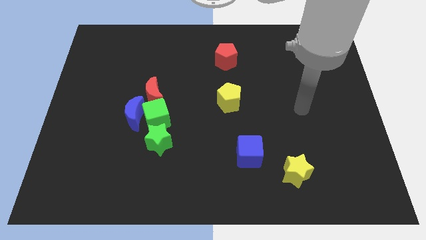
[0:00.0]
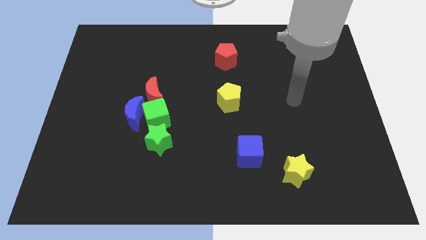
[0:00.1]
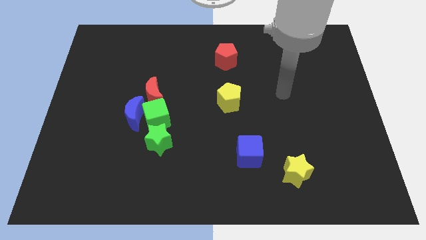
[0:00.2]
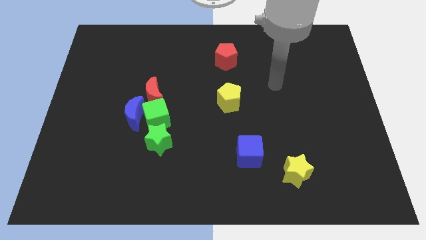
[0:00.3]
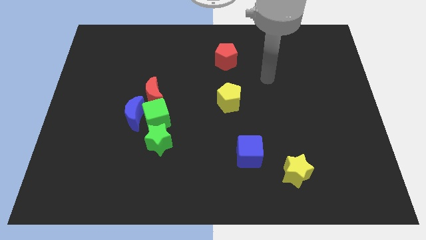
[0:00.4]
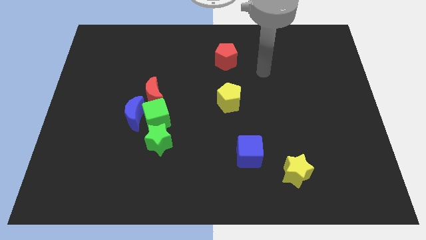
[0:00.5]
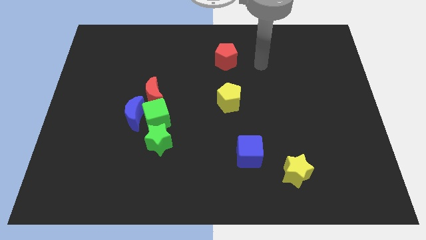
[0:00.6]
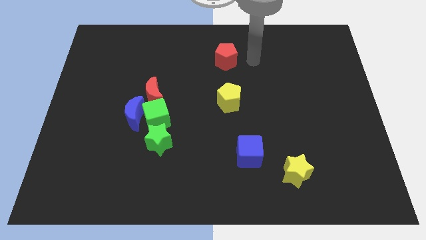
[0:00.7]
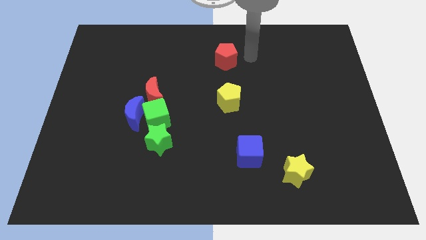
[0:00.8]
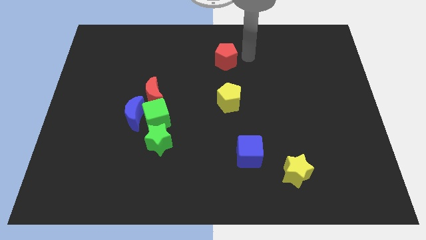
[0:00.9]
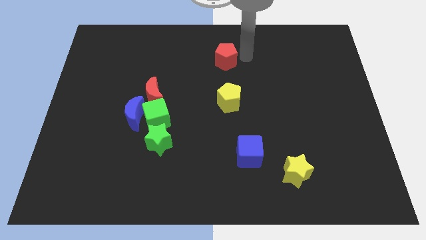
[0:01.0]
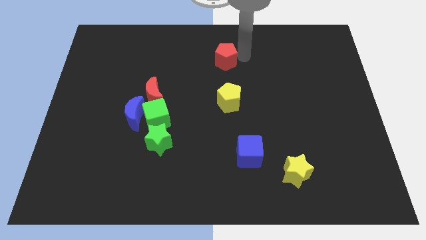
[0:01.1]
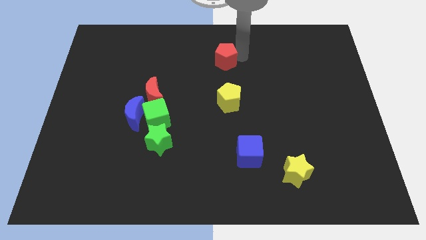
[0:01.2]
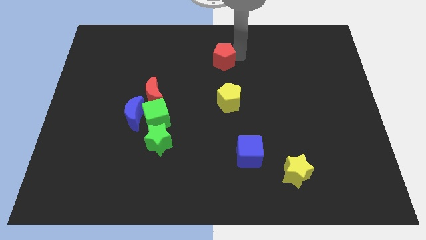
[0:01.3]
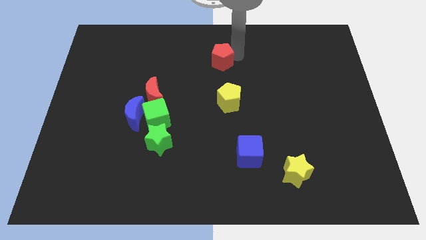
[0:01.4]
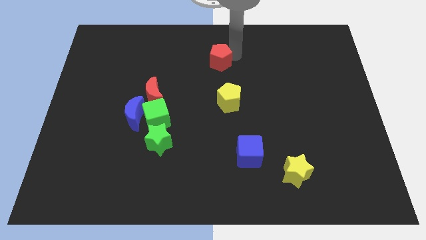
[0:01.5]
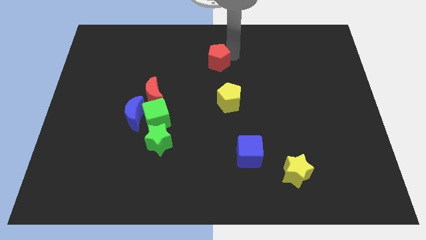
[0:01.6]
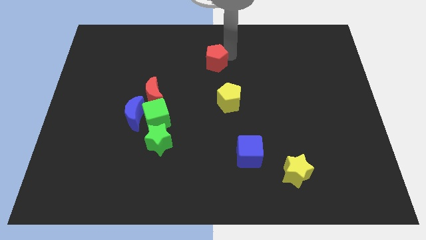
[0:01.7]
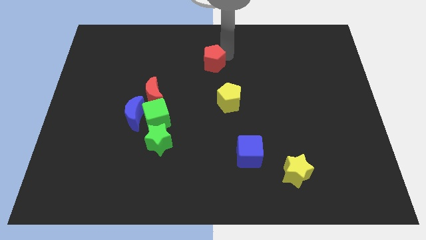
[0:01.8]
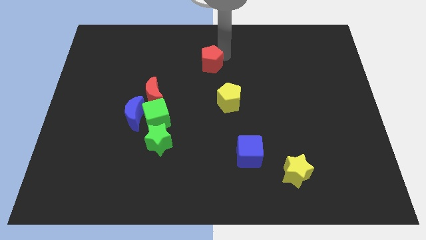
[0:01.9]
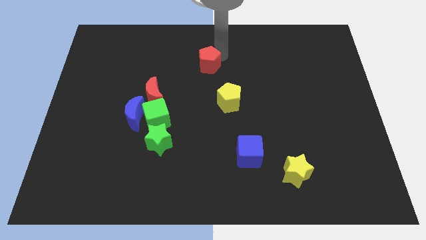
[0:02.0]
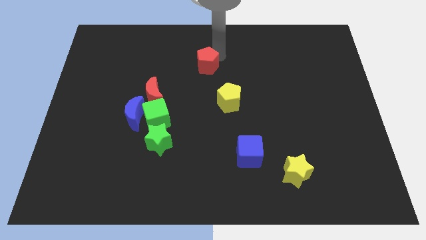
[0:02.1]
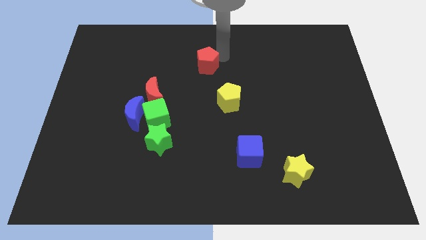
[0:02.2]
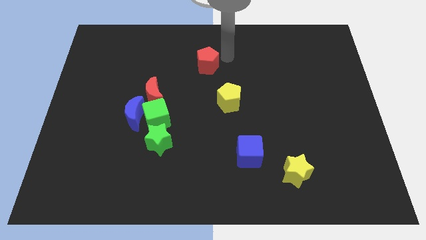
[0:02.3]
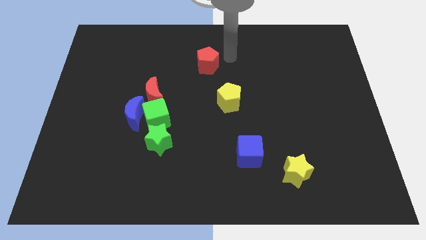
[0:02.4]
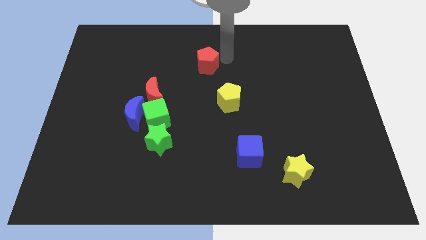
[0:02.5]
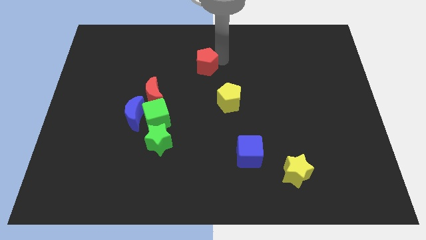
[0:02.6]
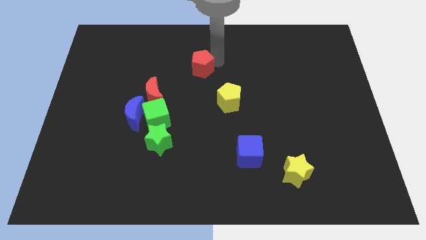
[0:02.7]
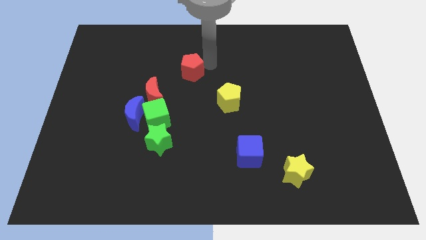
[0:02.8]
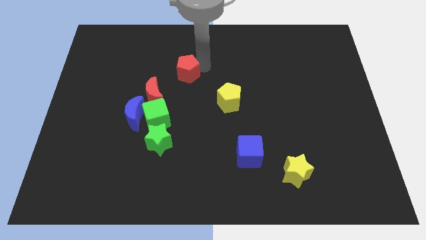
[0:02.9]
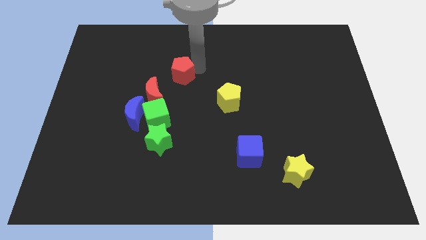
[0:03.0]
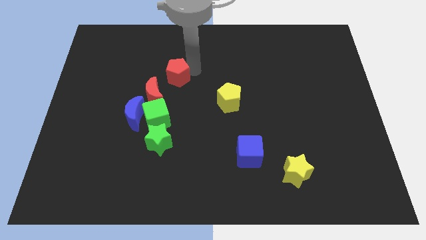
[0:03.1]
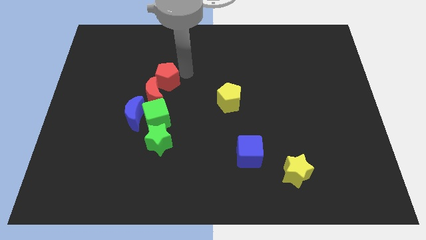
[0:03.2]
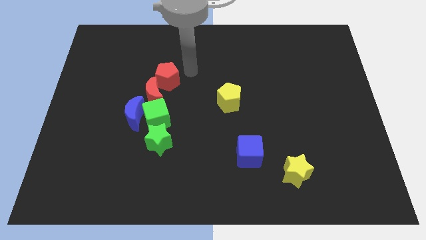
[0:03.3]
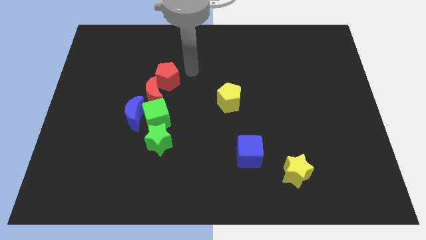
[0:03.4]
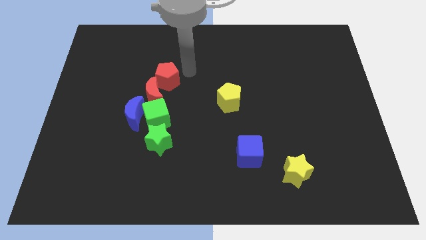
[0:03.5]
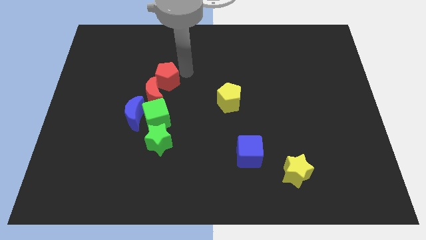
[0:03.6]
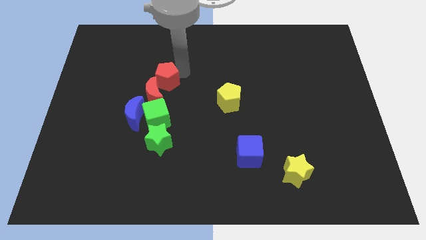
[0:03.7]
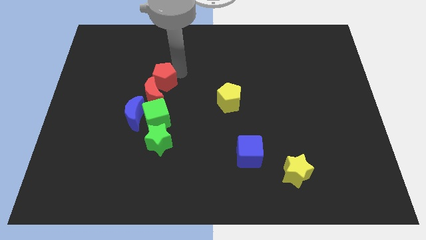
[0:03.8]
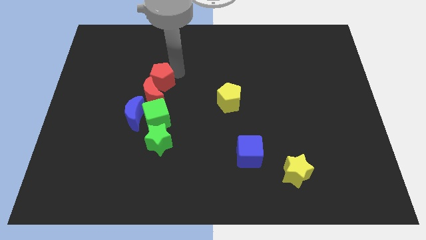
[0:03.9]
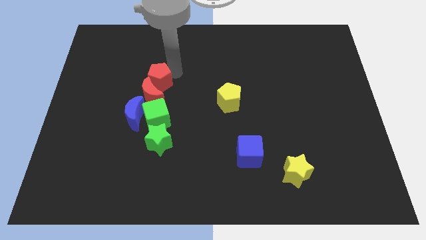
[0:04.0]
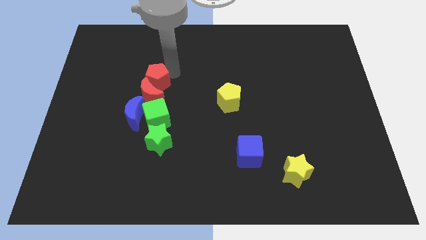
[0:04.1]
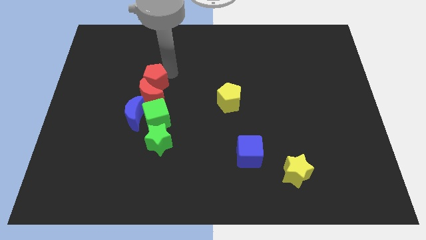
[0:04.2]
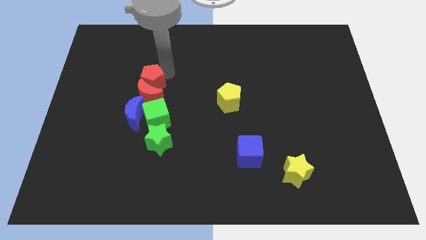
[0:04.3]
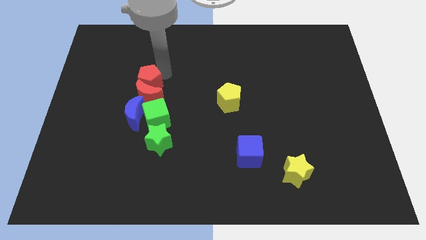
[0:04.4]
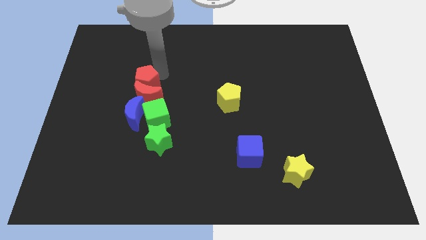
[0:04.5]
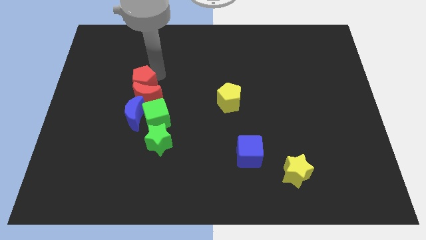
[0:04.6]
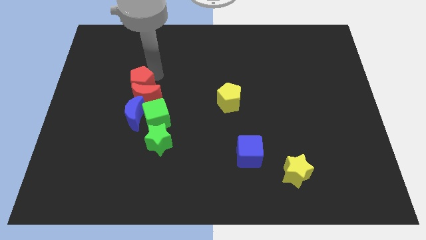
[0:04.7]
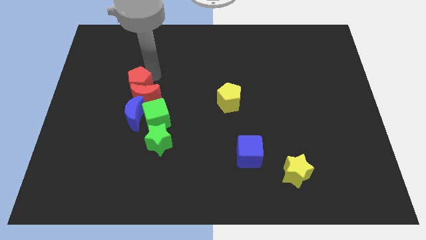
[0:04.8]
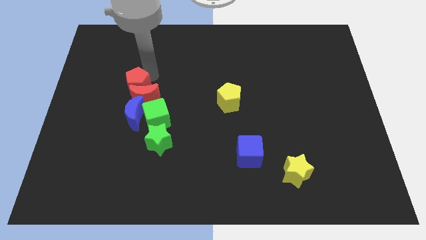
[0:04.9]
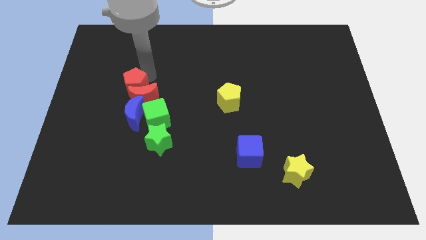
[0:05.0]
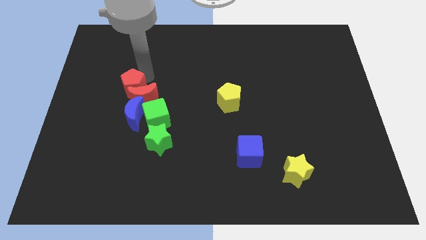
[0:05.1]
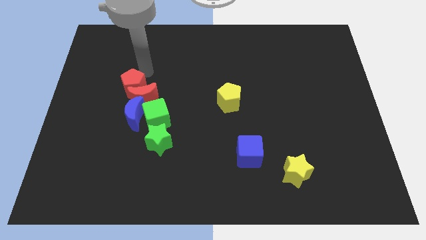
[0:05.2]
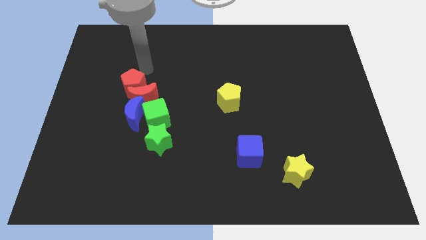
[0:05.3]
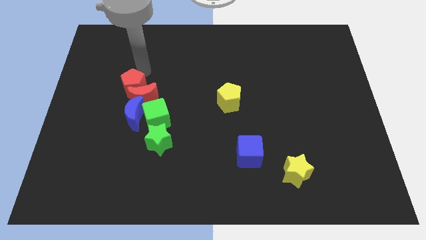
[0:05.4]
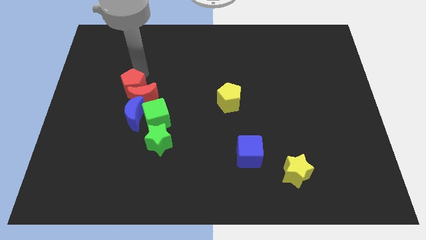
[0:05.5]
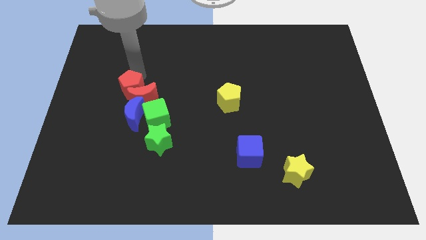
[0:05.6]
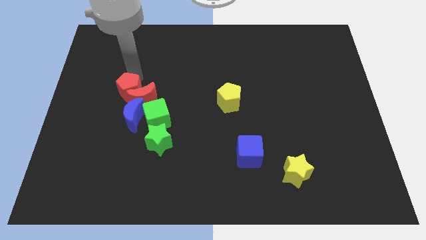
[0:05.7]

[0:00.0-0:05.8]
move the red pentagon diagonally downwards and to the left

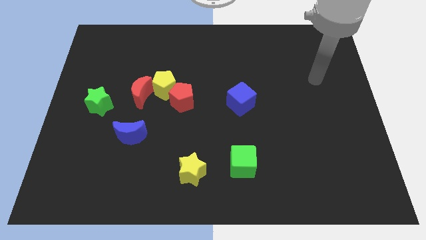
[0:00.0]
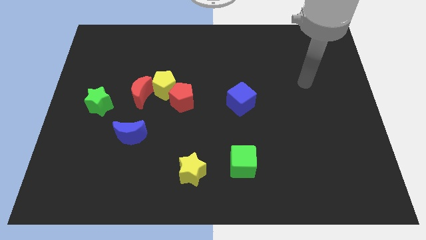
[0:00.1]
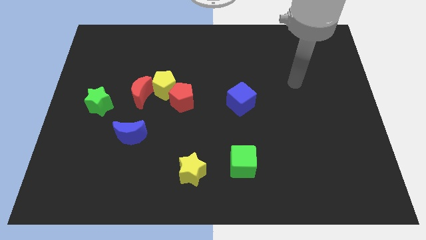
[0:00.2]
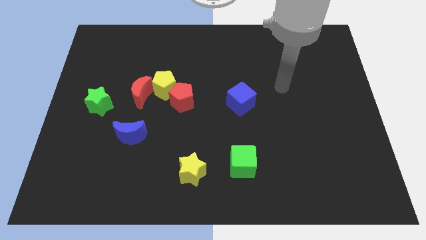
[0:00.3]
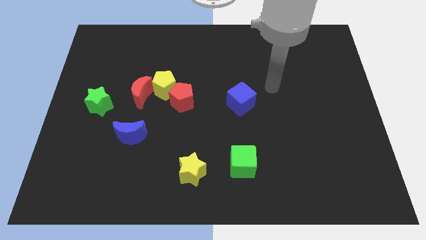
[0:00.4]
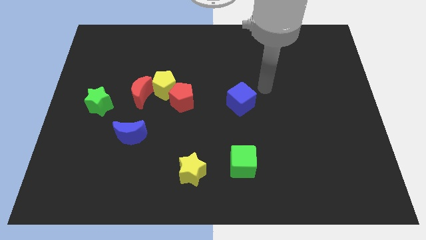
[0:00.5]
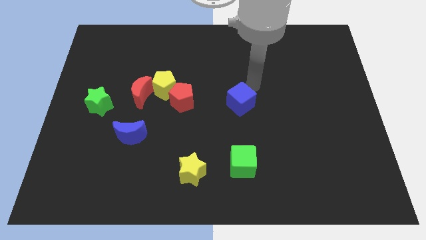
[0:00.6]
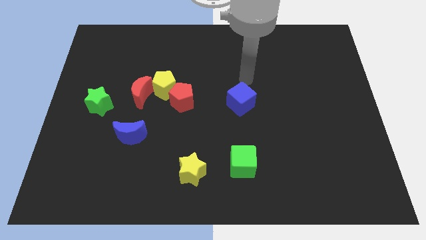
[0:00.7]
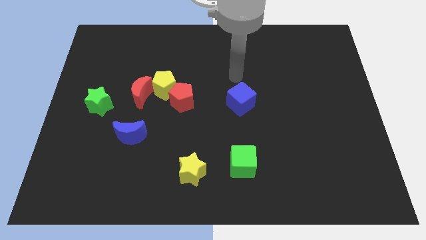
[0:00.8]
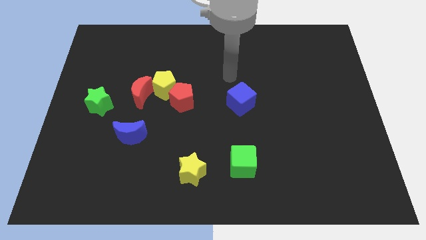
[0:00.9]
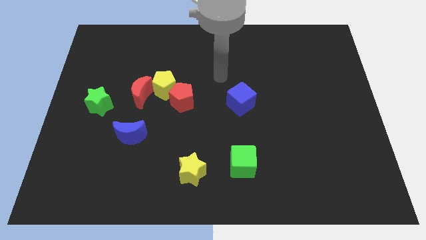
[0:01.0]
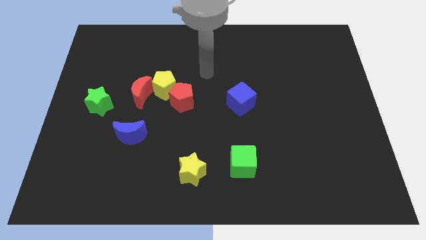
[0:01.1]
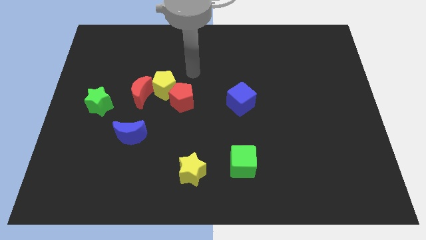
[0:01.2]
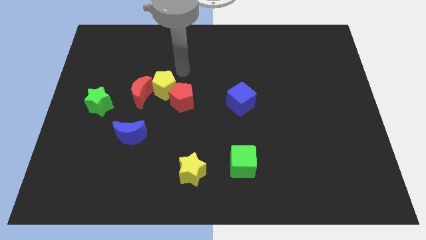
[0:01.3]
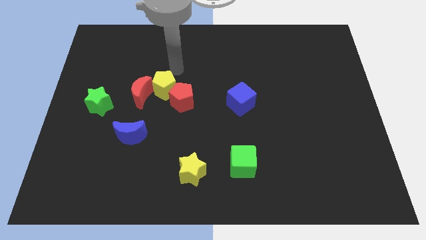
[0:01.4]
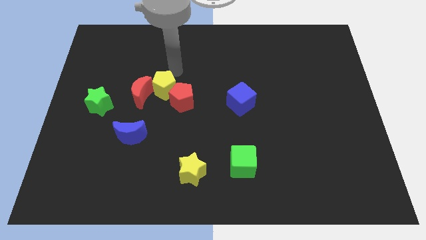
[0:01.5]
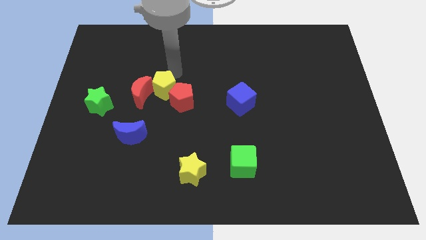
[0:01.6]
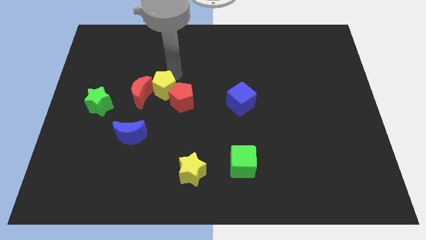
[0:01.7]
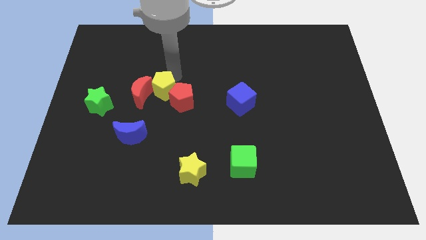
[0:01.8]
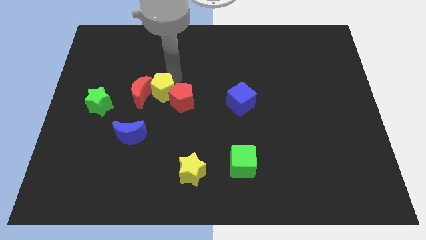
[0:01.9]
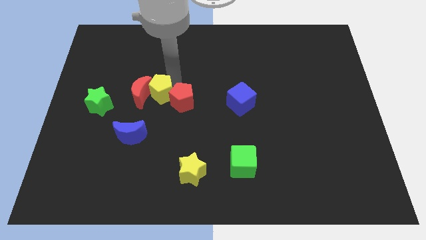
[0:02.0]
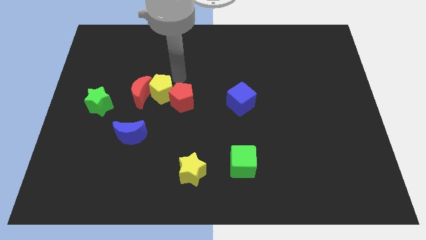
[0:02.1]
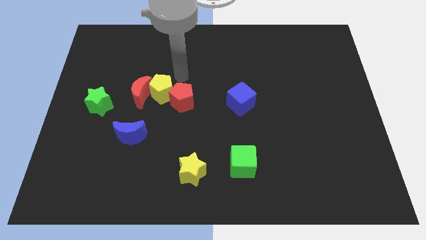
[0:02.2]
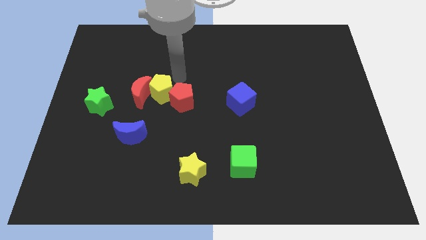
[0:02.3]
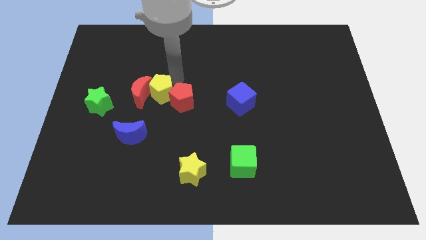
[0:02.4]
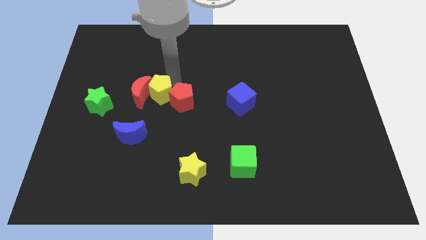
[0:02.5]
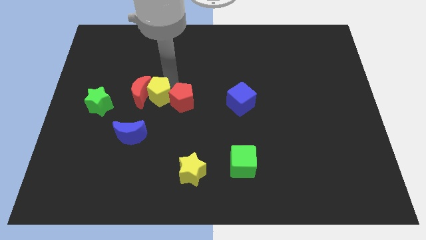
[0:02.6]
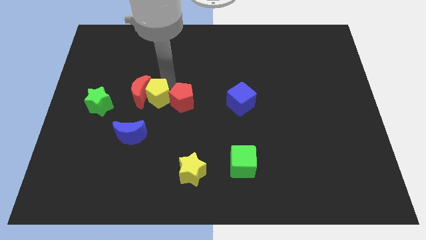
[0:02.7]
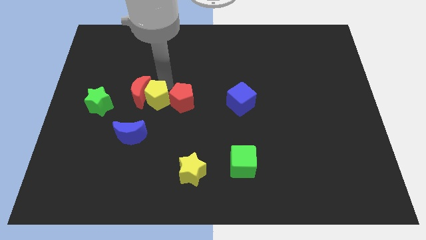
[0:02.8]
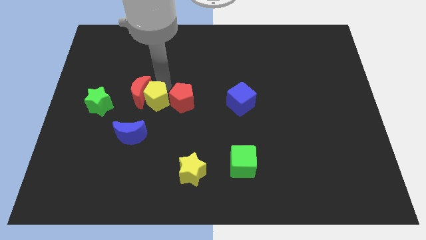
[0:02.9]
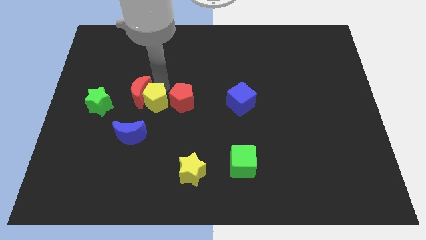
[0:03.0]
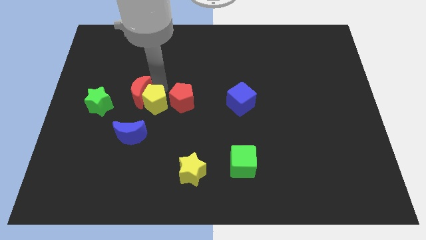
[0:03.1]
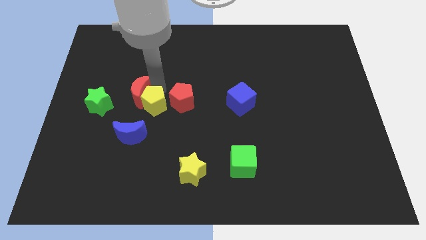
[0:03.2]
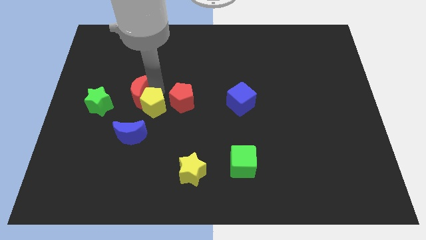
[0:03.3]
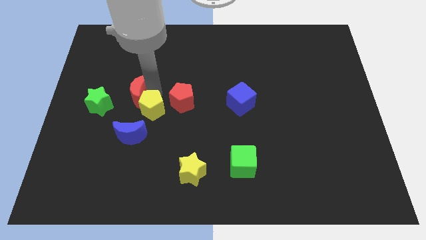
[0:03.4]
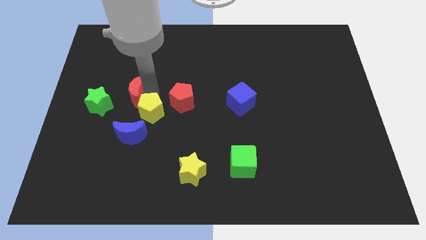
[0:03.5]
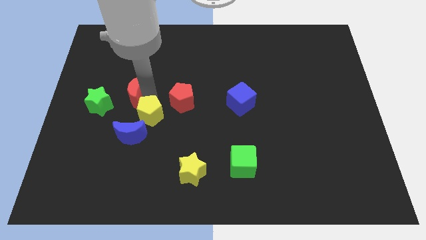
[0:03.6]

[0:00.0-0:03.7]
slide the yellow pentagon down and then to the left a little
